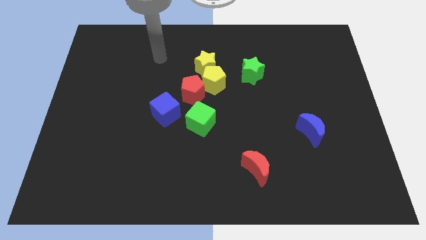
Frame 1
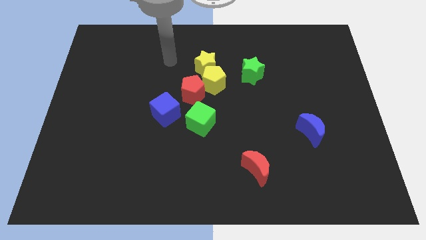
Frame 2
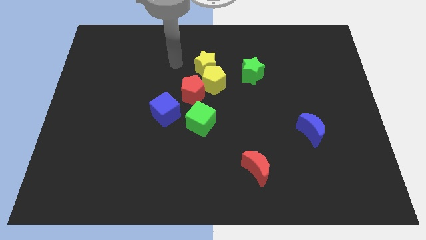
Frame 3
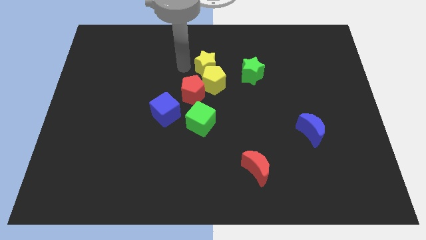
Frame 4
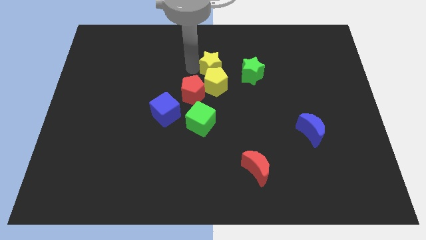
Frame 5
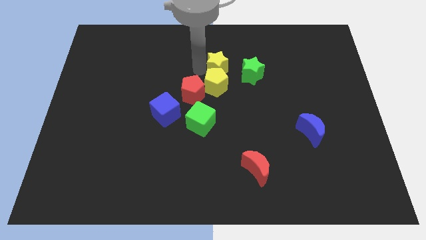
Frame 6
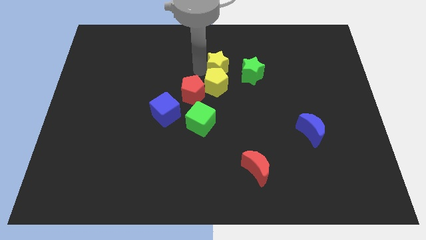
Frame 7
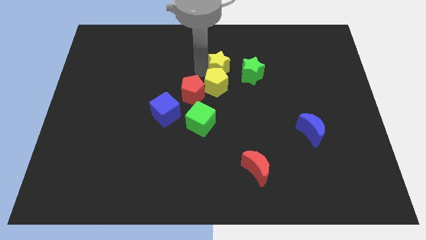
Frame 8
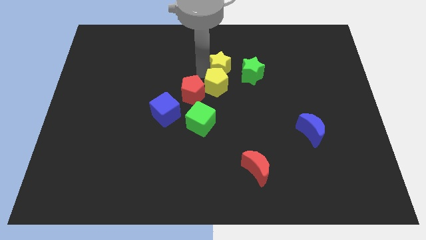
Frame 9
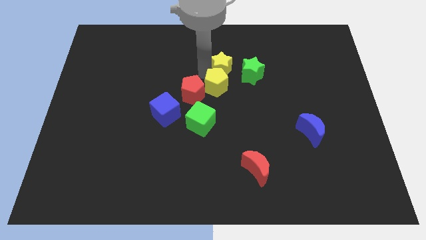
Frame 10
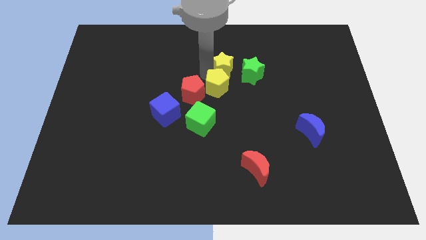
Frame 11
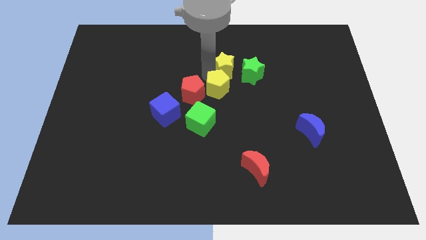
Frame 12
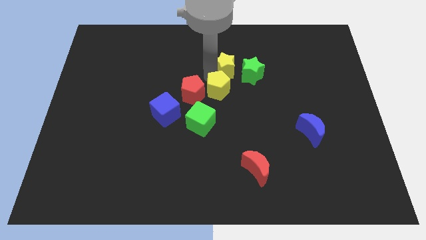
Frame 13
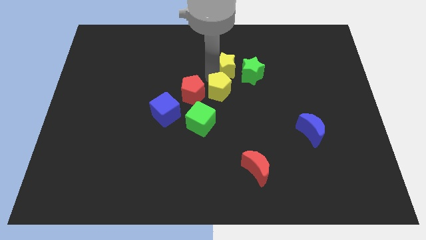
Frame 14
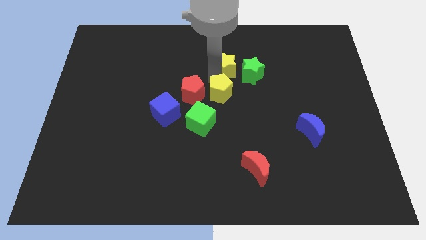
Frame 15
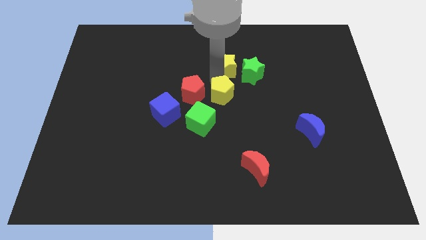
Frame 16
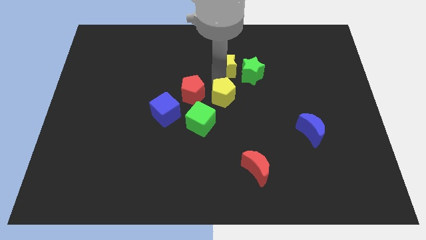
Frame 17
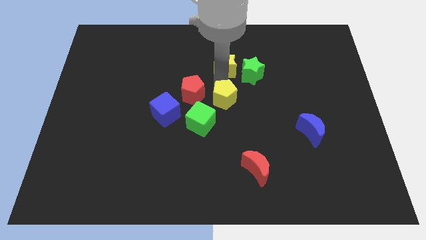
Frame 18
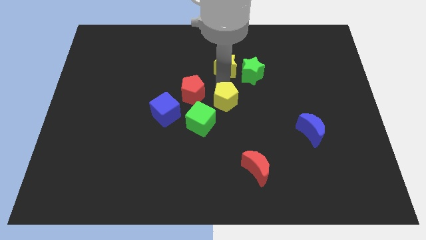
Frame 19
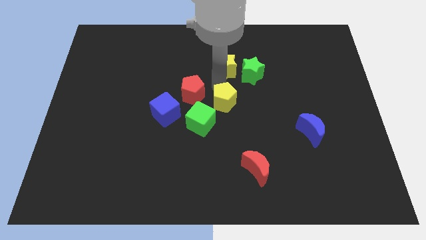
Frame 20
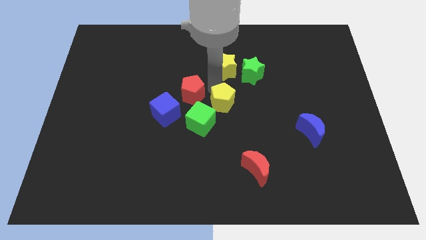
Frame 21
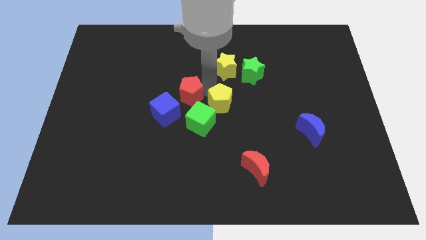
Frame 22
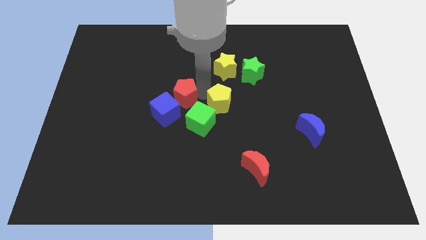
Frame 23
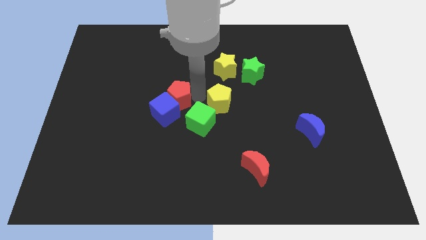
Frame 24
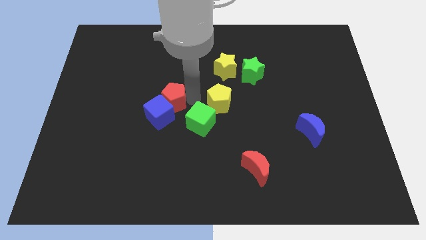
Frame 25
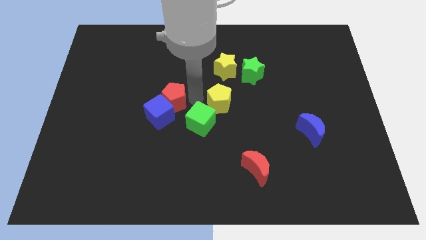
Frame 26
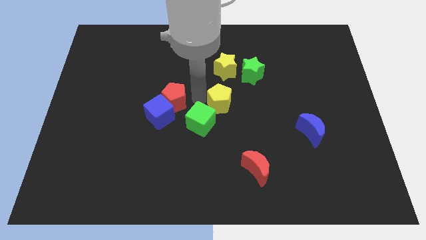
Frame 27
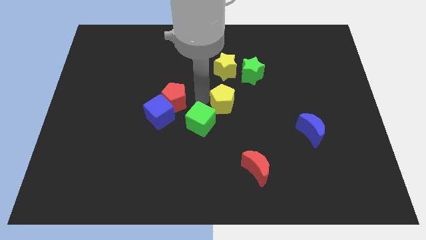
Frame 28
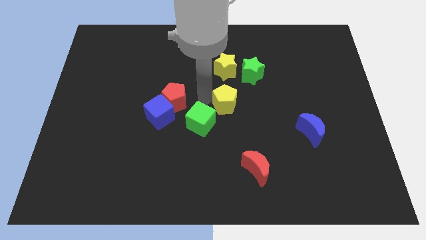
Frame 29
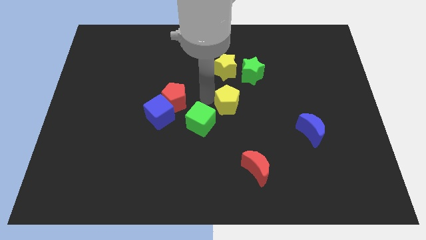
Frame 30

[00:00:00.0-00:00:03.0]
slightly slide the yellow pentagon down and right

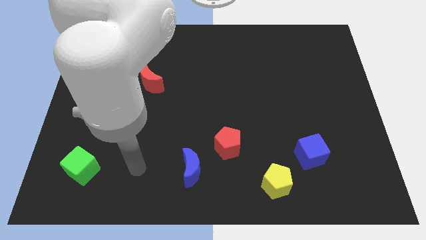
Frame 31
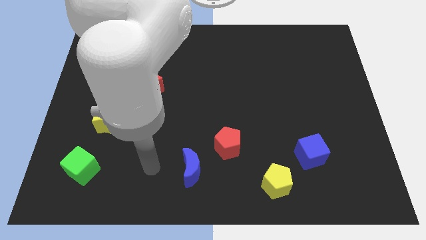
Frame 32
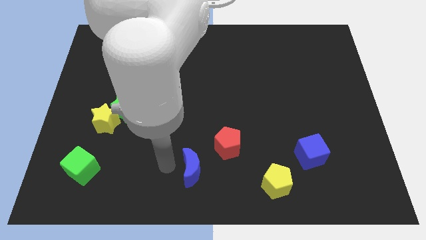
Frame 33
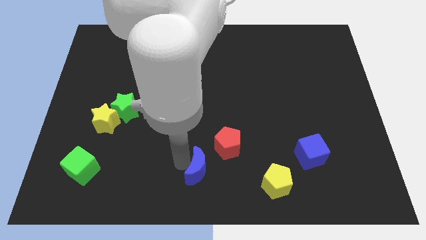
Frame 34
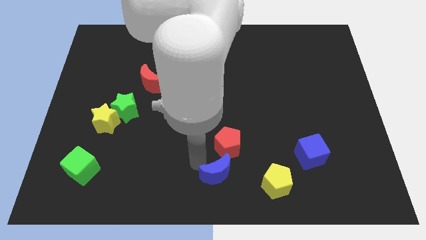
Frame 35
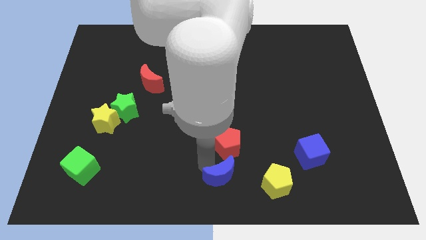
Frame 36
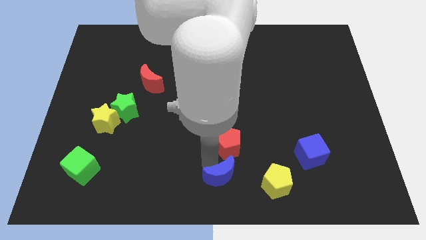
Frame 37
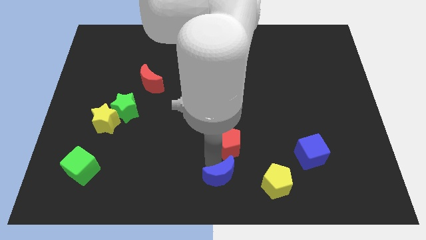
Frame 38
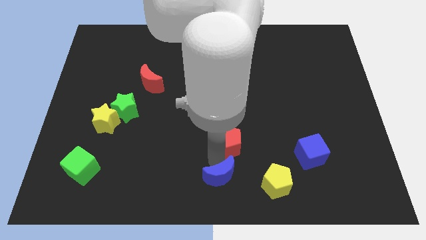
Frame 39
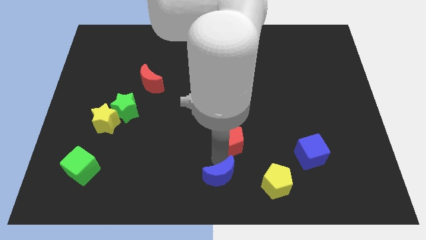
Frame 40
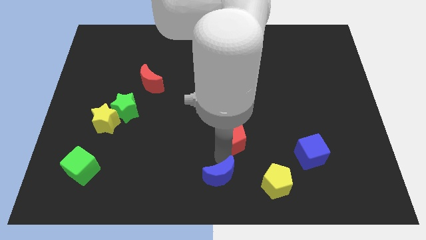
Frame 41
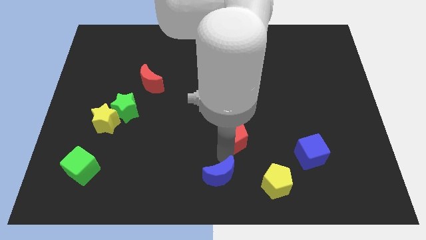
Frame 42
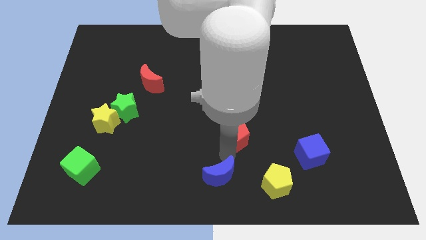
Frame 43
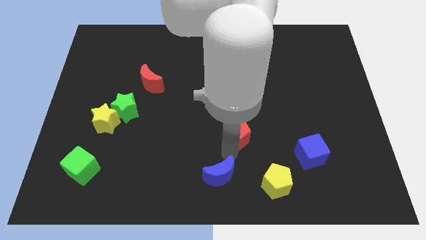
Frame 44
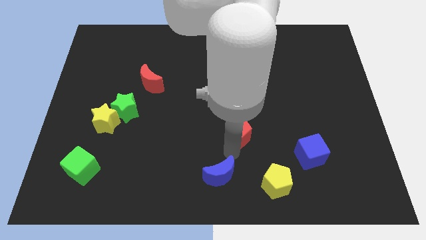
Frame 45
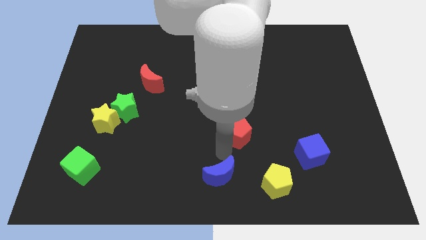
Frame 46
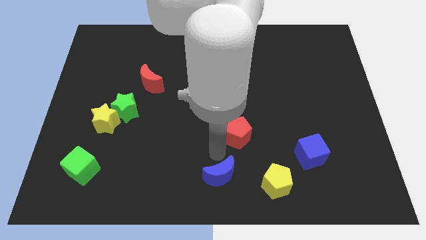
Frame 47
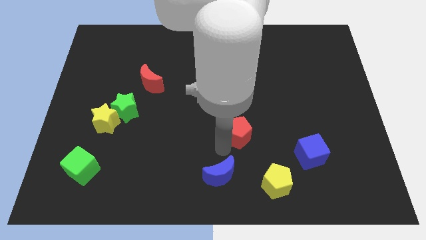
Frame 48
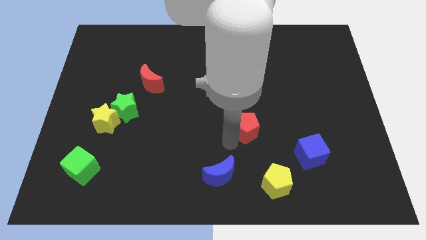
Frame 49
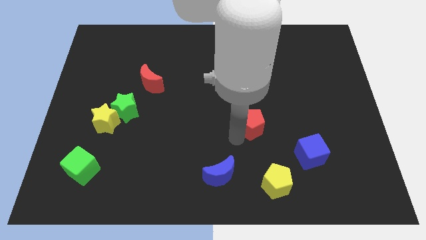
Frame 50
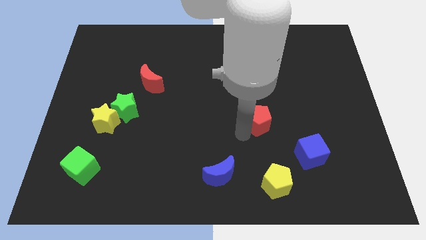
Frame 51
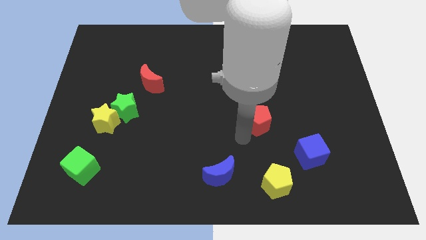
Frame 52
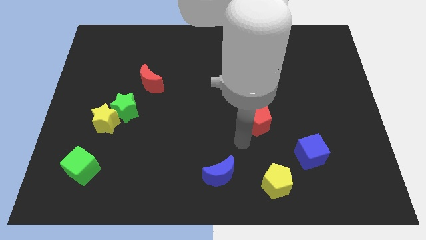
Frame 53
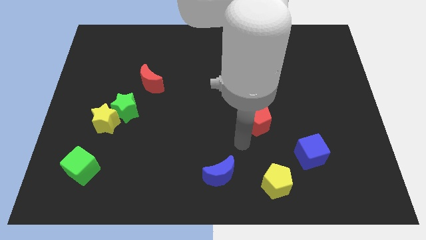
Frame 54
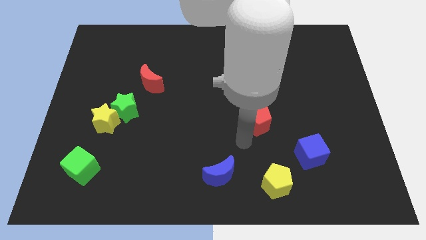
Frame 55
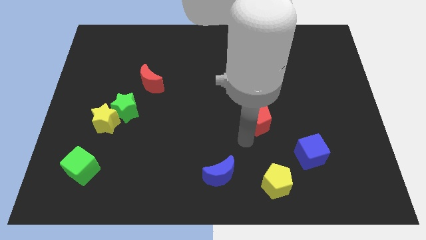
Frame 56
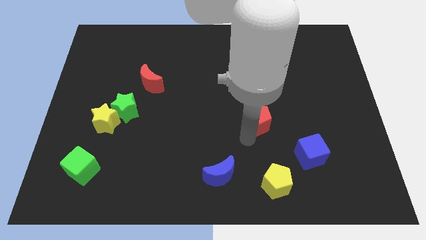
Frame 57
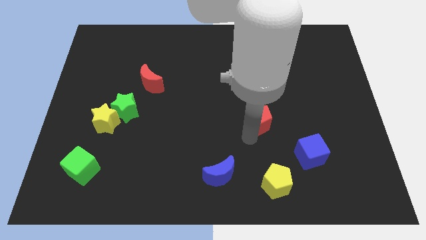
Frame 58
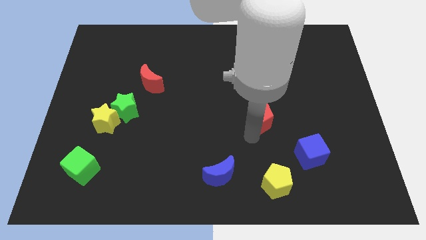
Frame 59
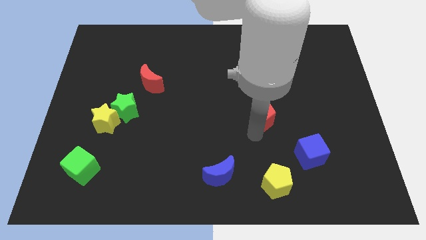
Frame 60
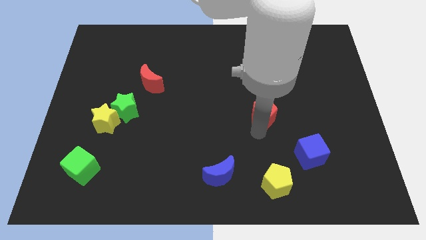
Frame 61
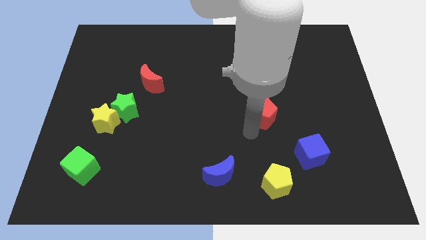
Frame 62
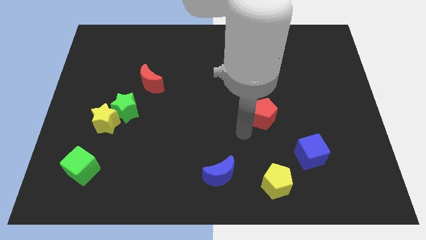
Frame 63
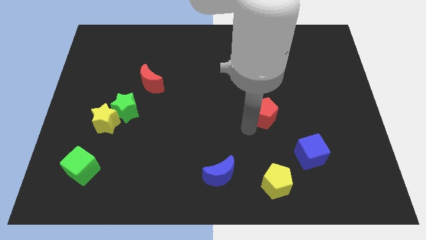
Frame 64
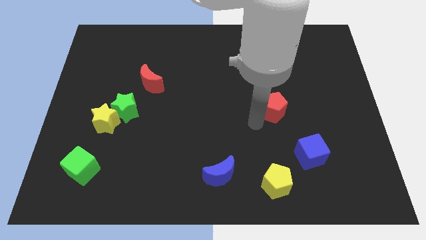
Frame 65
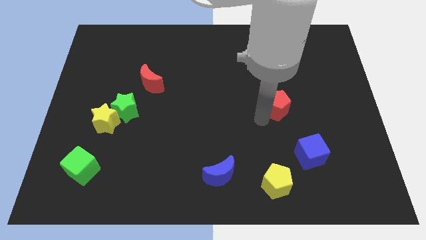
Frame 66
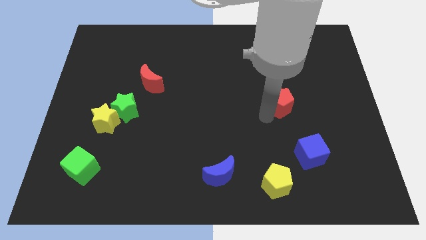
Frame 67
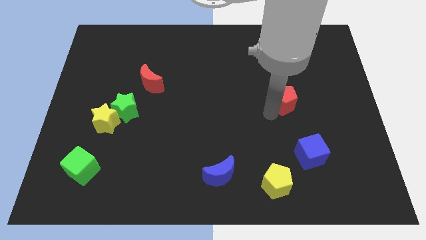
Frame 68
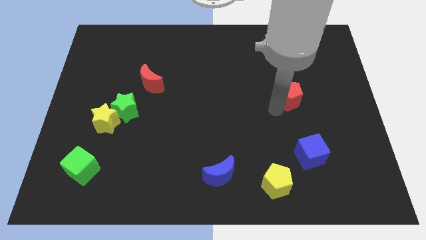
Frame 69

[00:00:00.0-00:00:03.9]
slide the red pentagon up and right diagonally

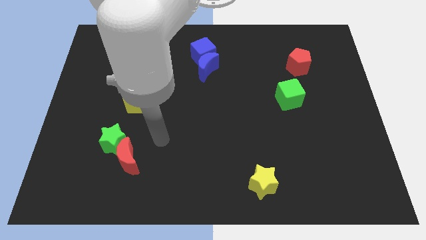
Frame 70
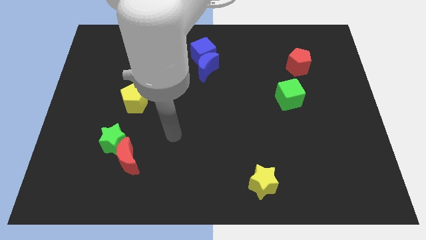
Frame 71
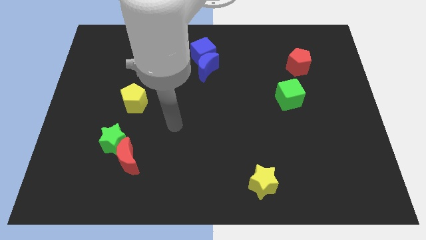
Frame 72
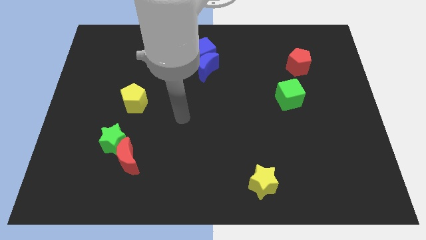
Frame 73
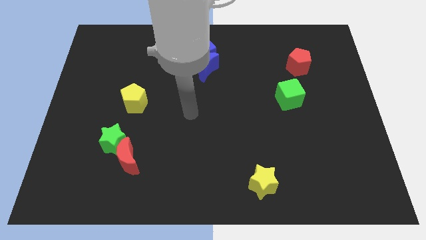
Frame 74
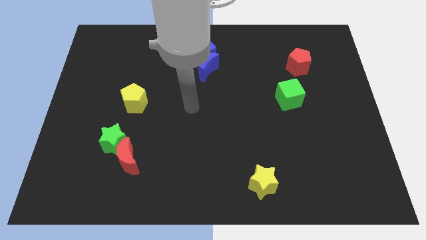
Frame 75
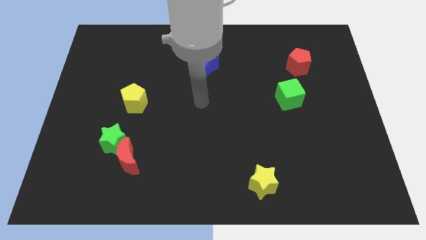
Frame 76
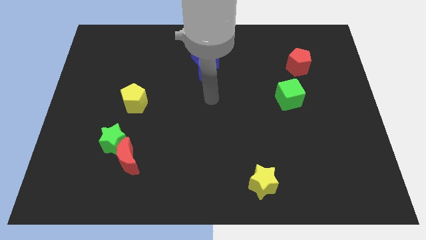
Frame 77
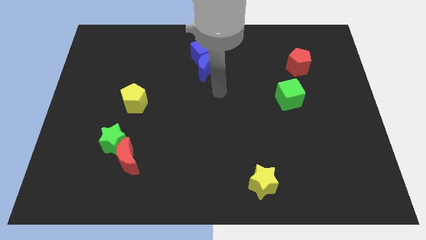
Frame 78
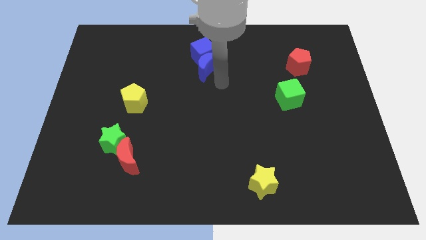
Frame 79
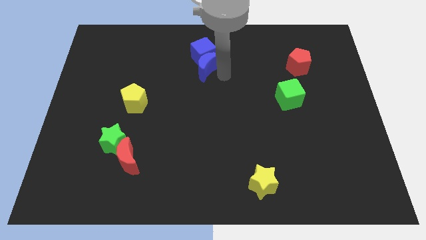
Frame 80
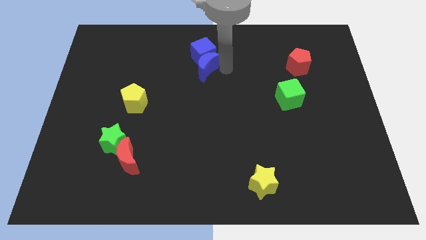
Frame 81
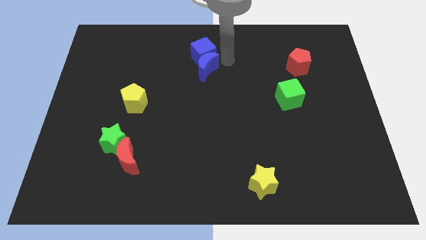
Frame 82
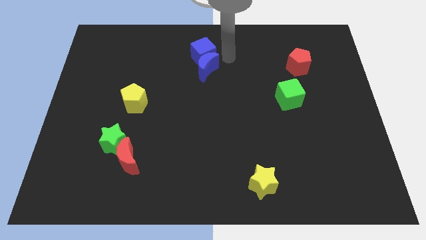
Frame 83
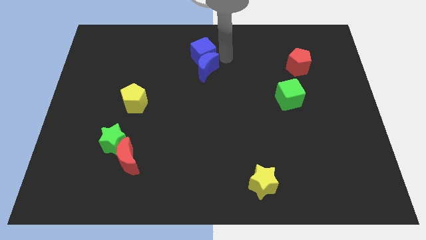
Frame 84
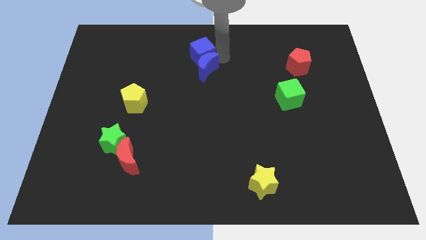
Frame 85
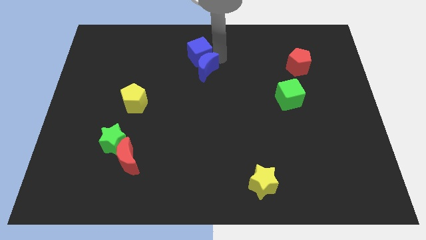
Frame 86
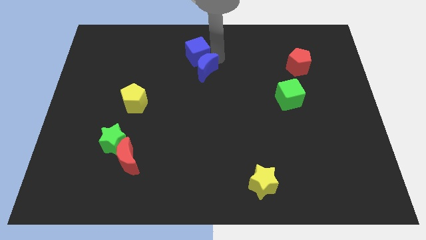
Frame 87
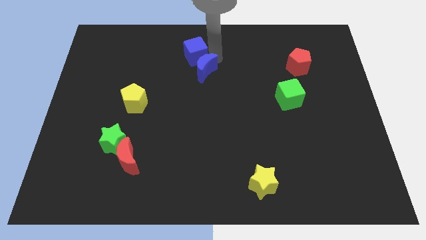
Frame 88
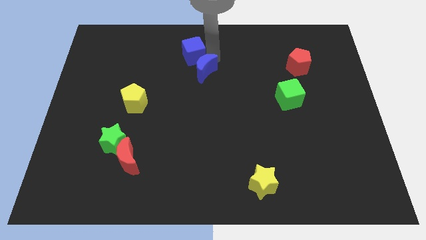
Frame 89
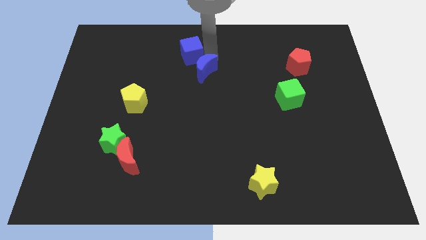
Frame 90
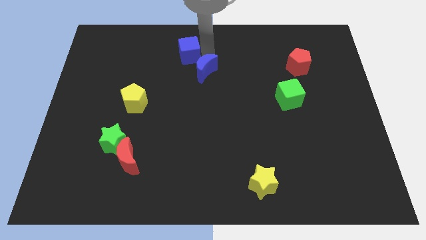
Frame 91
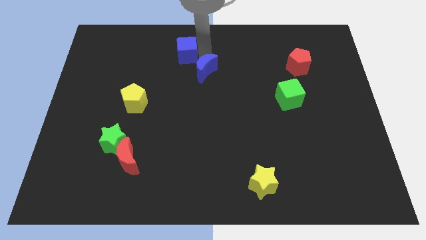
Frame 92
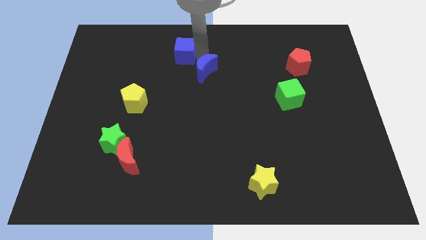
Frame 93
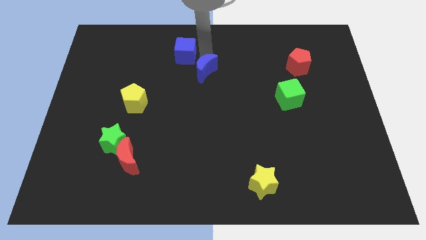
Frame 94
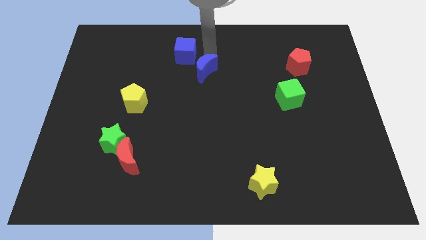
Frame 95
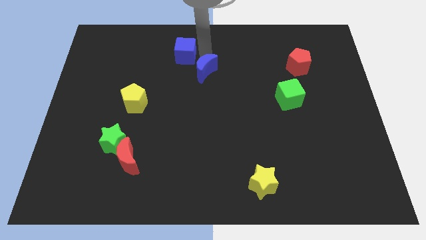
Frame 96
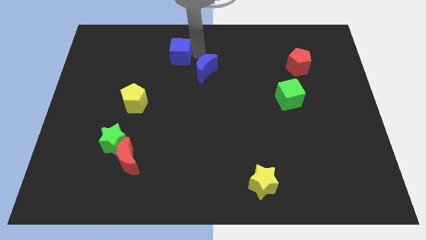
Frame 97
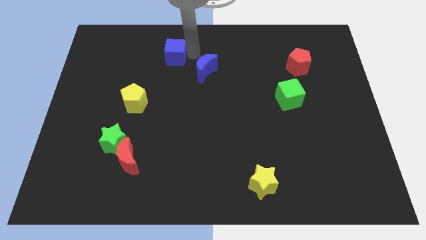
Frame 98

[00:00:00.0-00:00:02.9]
slightly slide the blue cube to the left
